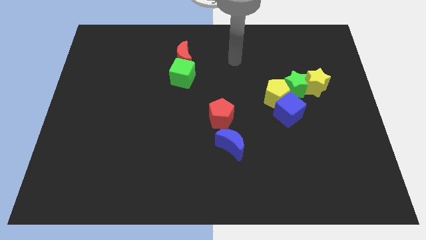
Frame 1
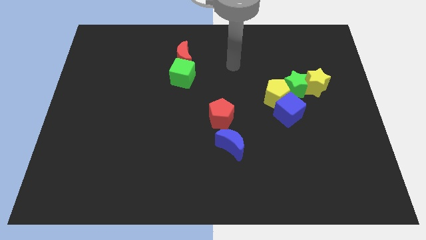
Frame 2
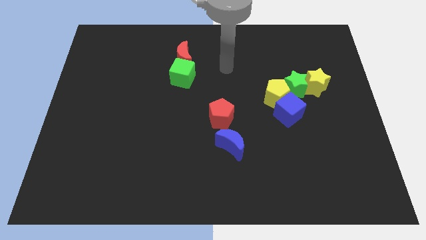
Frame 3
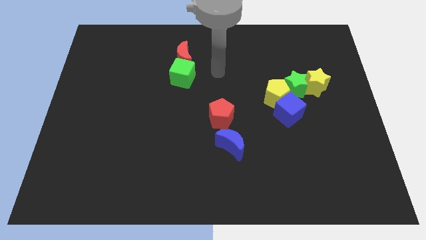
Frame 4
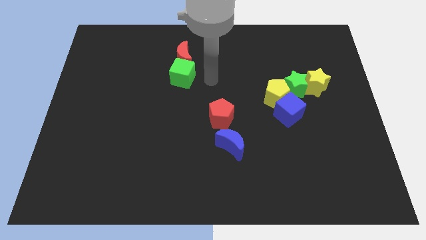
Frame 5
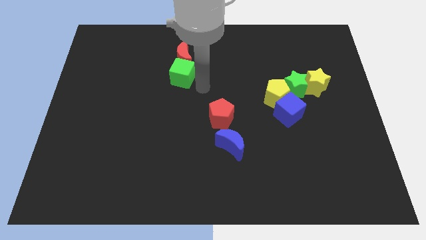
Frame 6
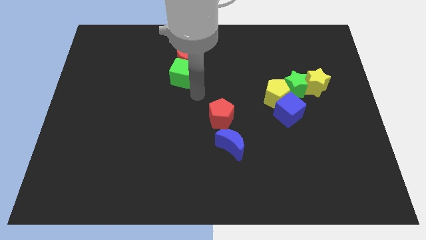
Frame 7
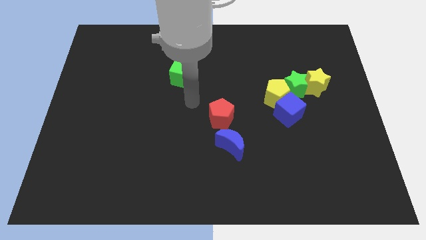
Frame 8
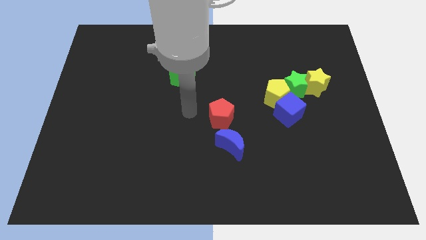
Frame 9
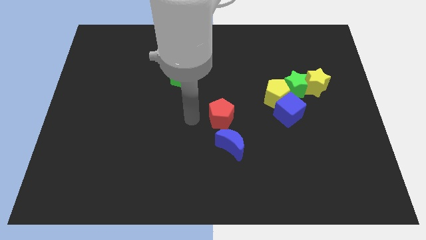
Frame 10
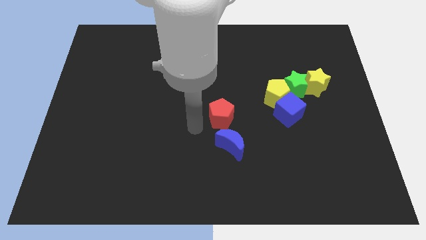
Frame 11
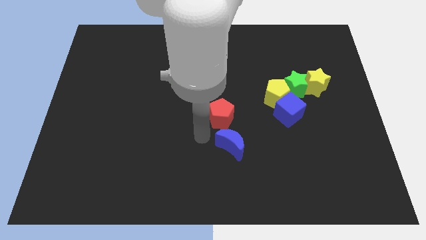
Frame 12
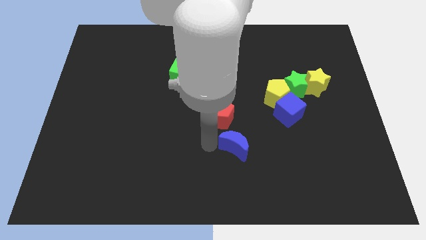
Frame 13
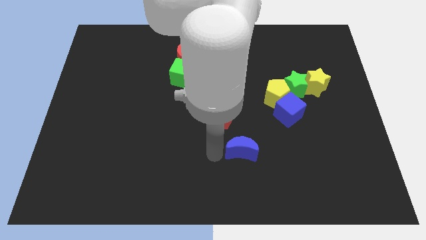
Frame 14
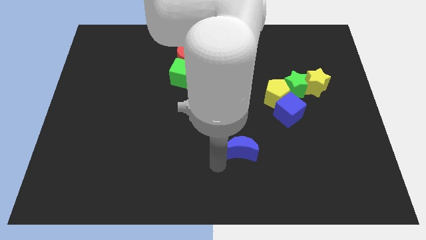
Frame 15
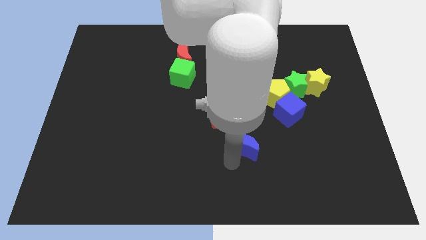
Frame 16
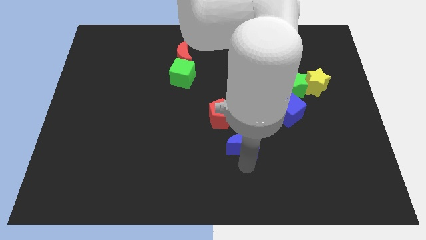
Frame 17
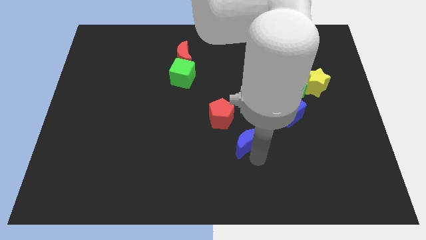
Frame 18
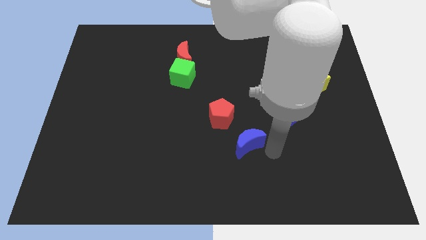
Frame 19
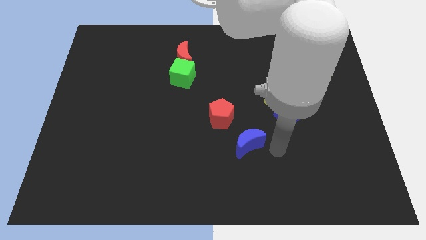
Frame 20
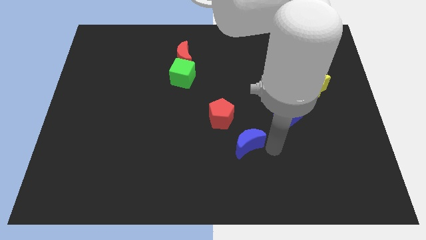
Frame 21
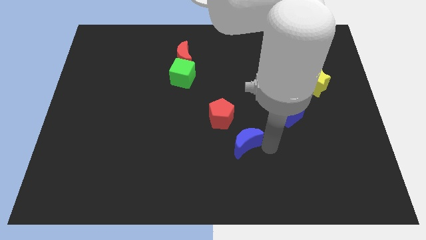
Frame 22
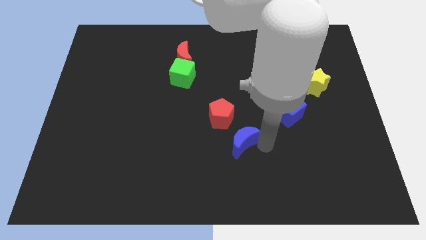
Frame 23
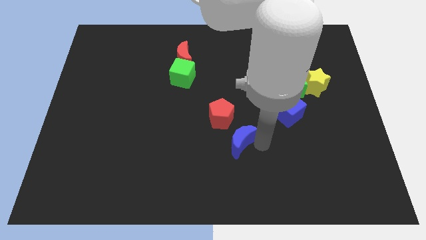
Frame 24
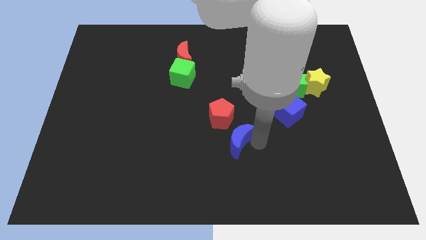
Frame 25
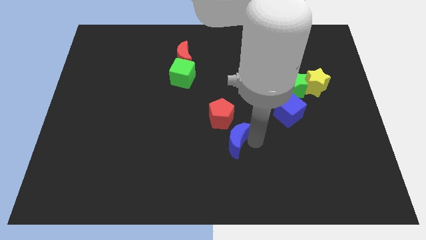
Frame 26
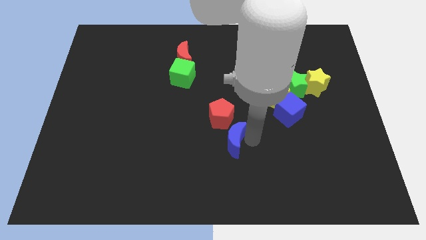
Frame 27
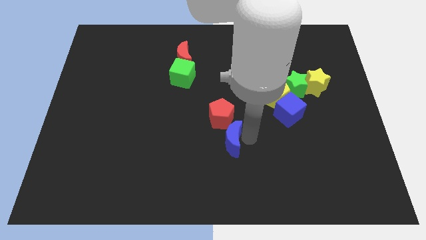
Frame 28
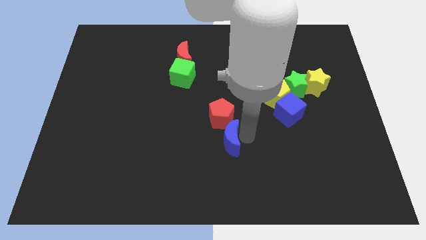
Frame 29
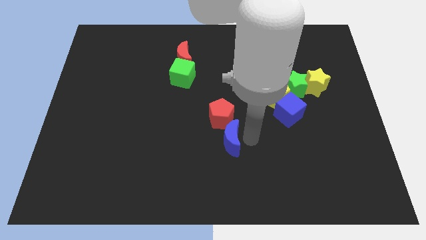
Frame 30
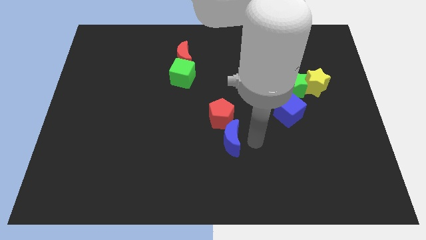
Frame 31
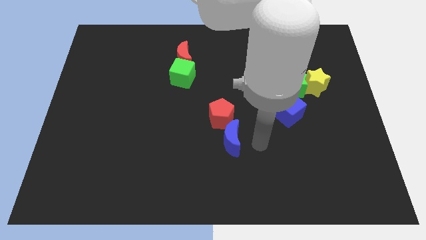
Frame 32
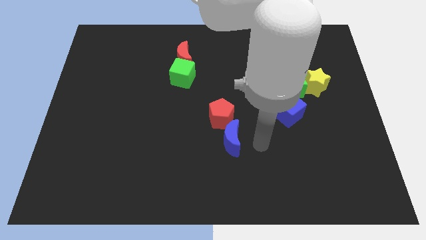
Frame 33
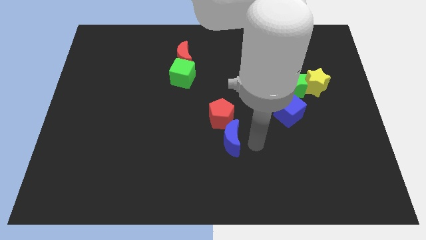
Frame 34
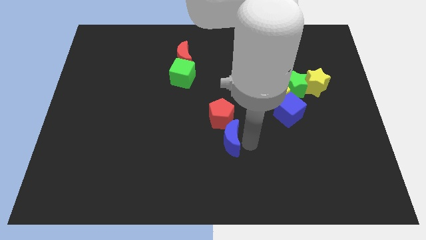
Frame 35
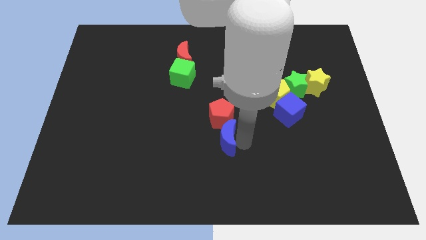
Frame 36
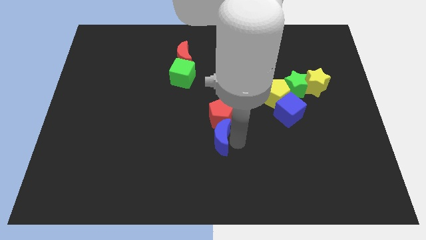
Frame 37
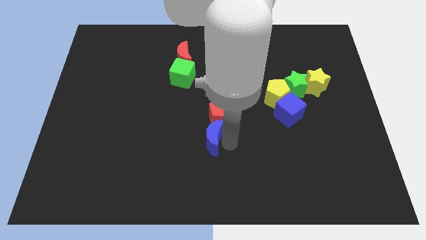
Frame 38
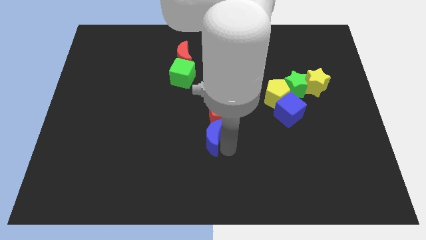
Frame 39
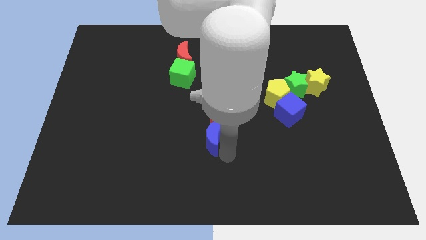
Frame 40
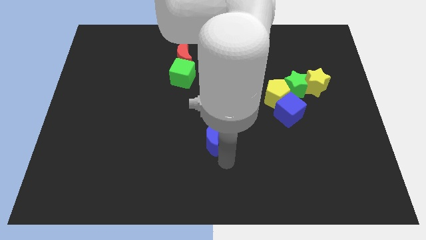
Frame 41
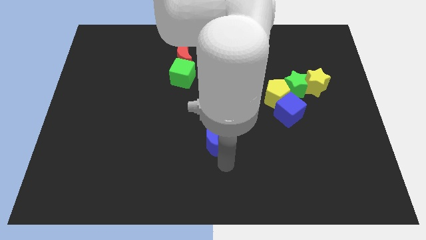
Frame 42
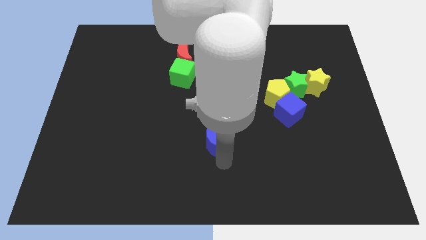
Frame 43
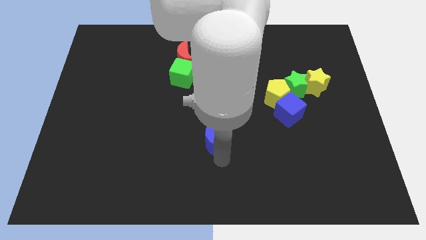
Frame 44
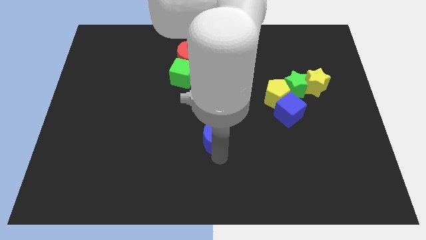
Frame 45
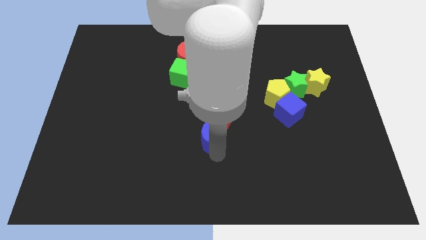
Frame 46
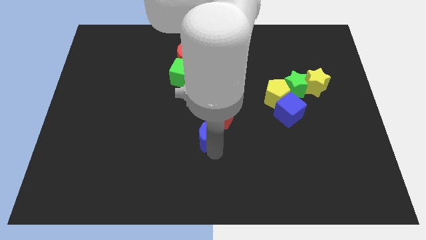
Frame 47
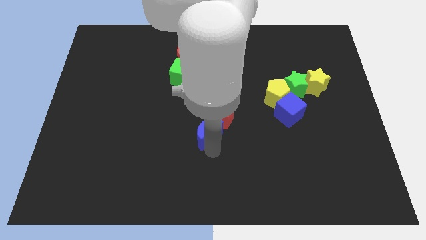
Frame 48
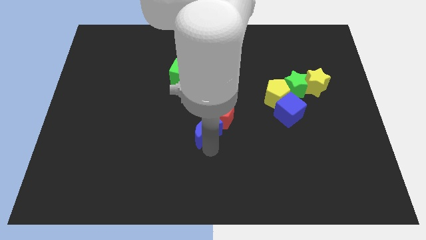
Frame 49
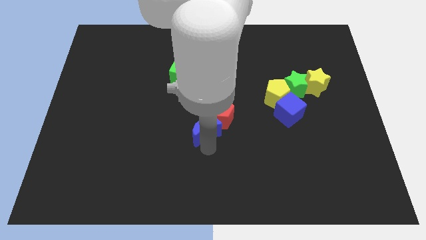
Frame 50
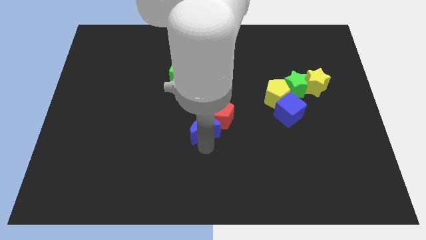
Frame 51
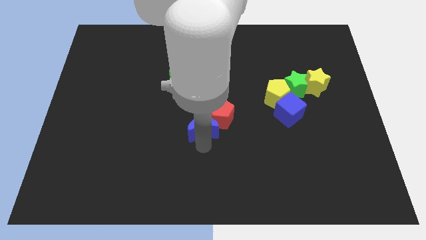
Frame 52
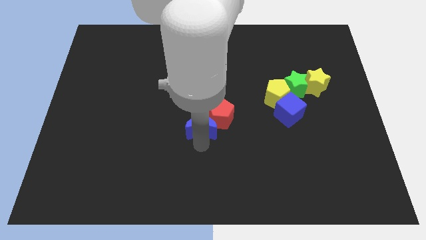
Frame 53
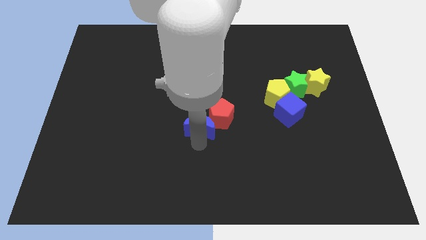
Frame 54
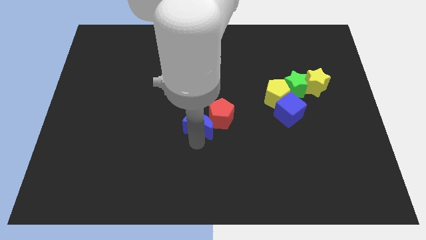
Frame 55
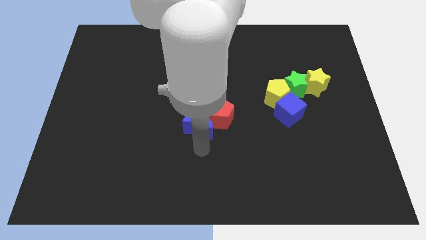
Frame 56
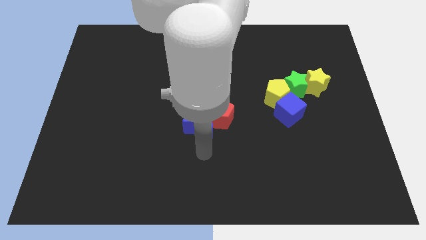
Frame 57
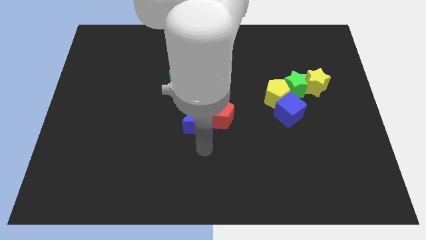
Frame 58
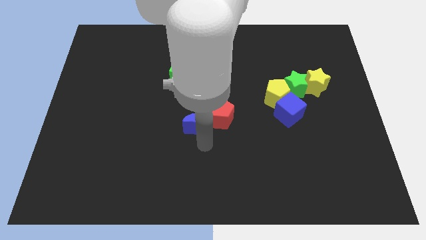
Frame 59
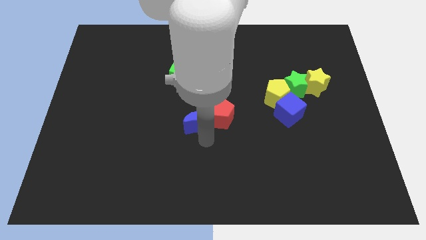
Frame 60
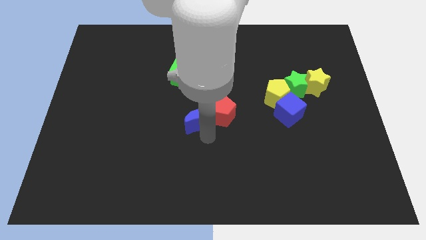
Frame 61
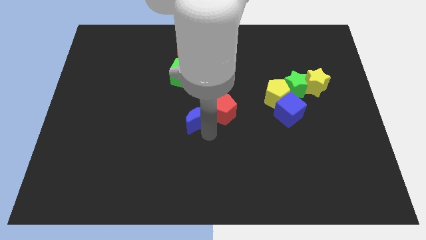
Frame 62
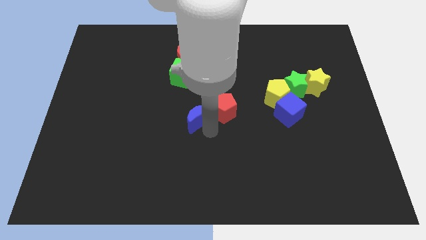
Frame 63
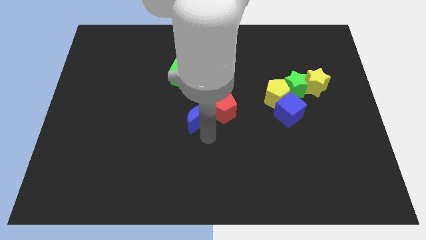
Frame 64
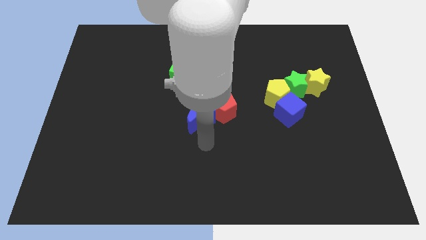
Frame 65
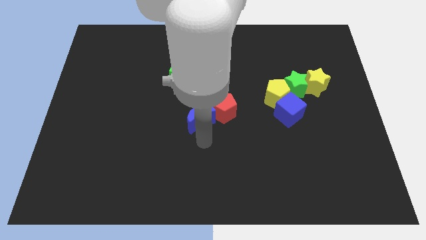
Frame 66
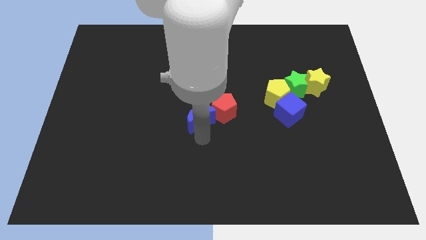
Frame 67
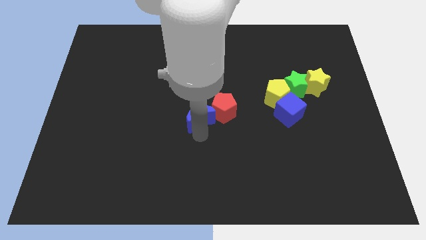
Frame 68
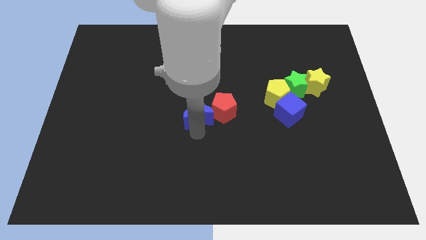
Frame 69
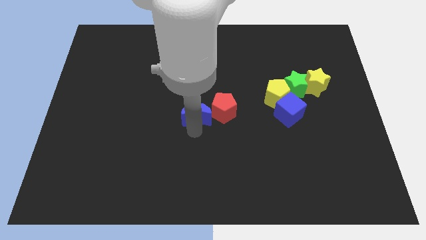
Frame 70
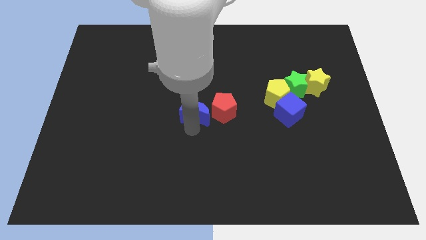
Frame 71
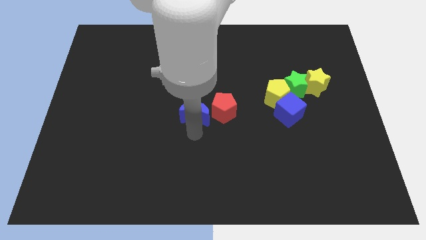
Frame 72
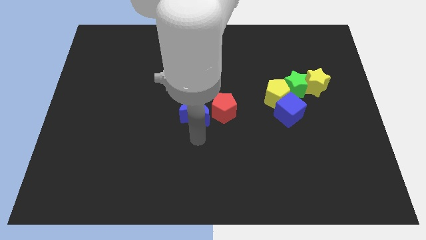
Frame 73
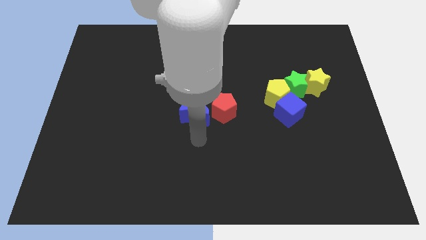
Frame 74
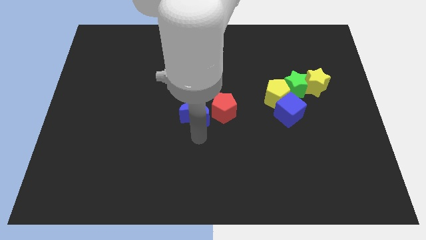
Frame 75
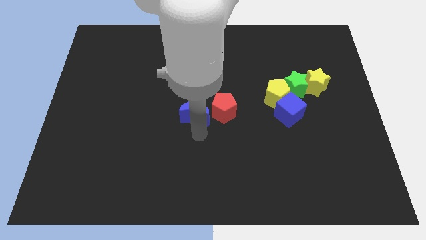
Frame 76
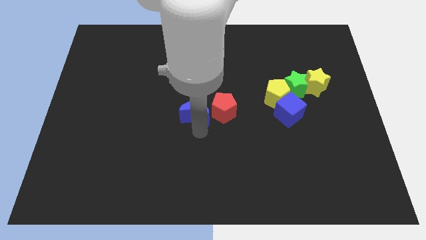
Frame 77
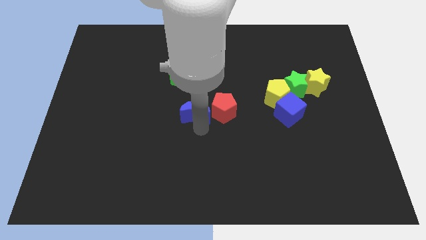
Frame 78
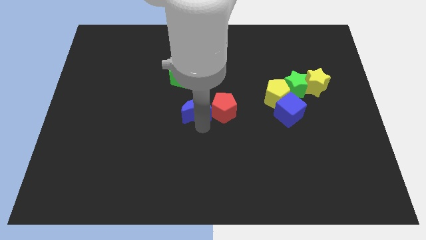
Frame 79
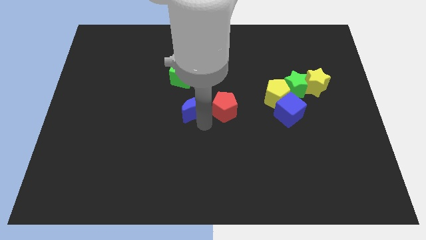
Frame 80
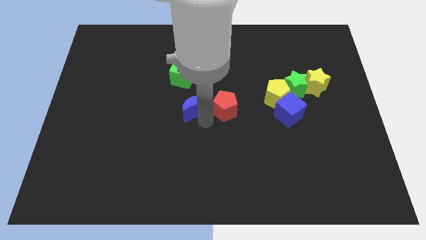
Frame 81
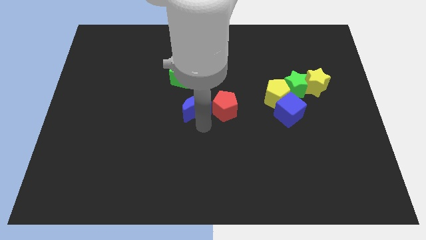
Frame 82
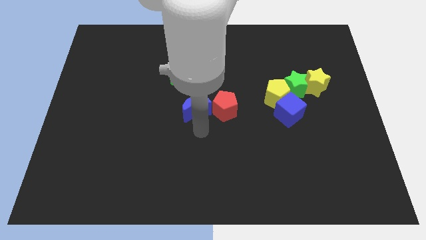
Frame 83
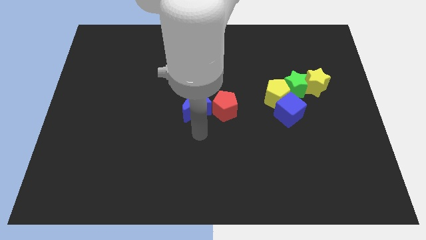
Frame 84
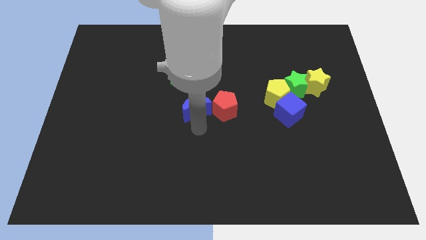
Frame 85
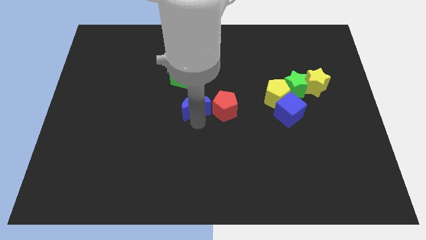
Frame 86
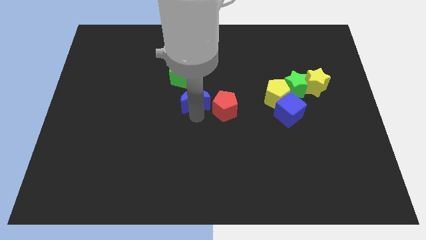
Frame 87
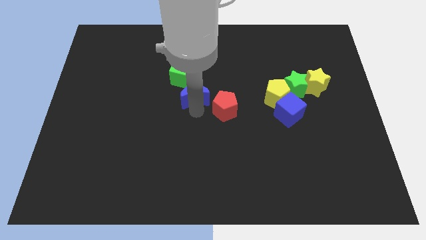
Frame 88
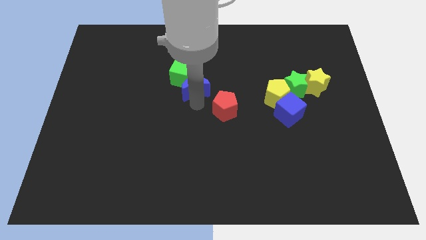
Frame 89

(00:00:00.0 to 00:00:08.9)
push the blue moon next to the green cube
